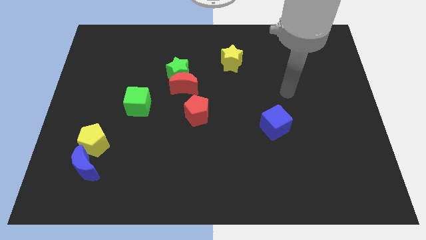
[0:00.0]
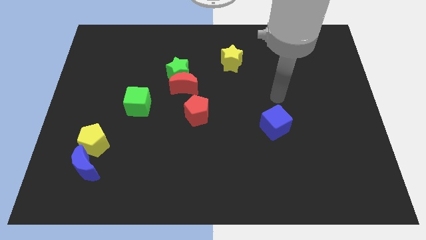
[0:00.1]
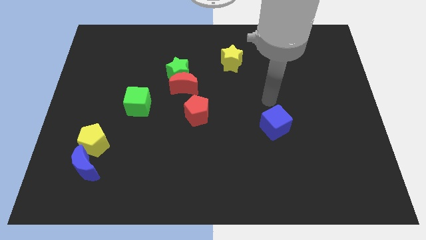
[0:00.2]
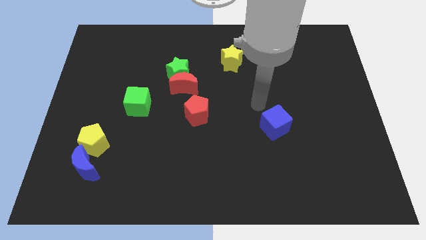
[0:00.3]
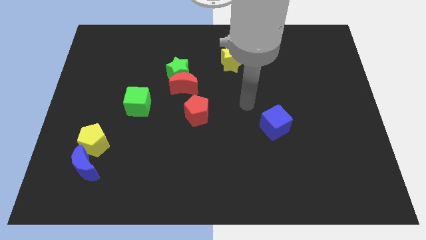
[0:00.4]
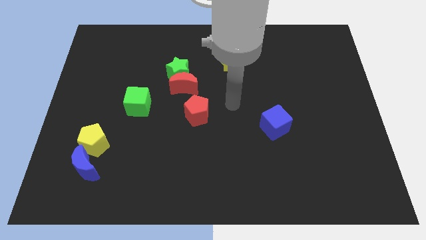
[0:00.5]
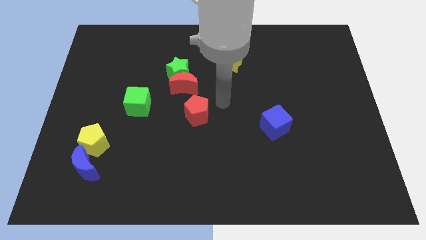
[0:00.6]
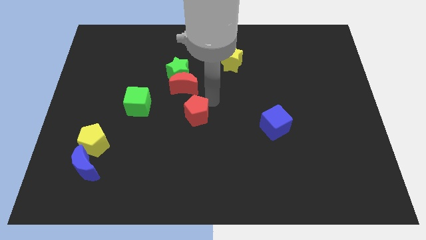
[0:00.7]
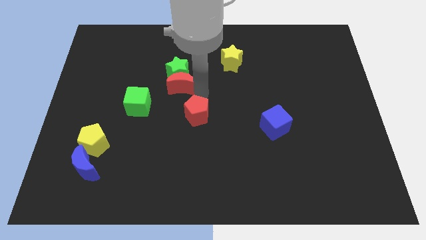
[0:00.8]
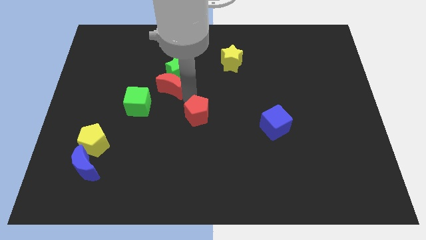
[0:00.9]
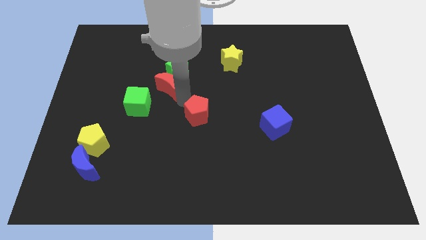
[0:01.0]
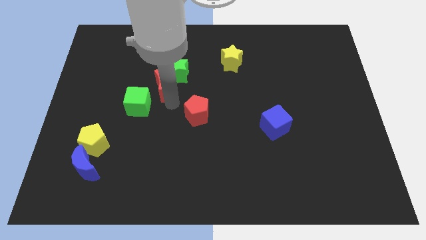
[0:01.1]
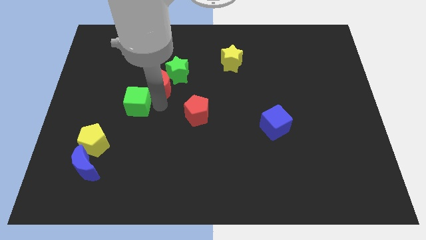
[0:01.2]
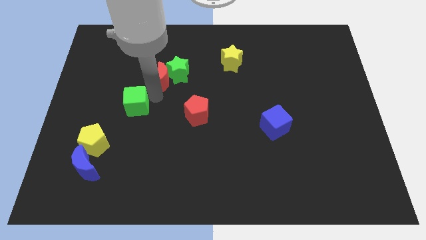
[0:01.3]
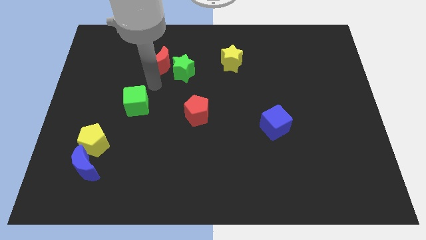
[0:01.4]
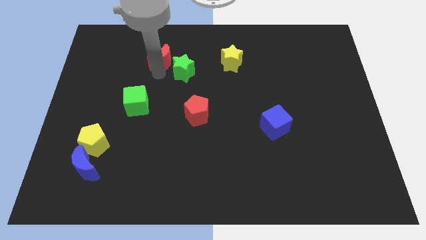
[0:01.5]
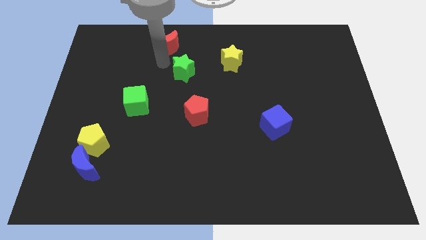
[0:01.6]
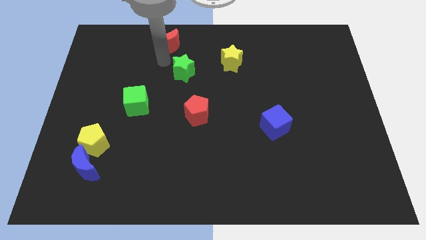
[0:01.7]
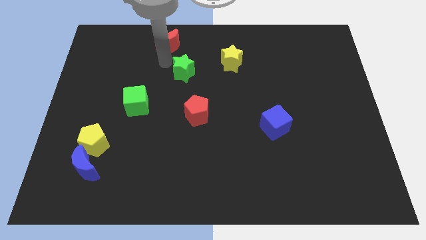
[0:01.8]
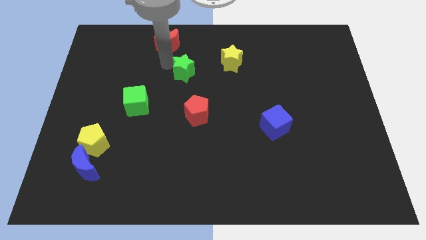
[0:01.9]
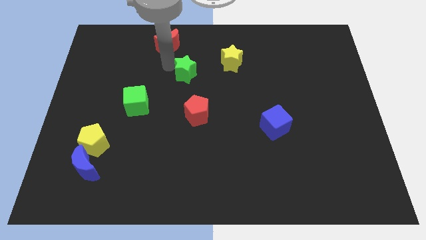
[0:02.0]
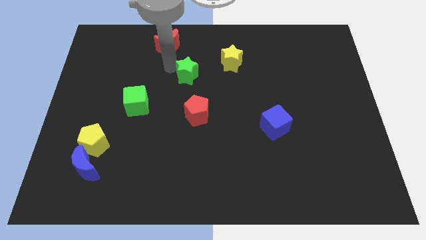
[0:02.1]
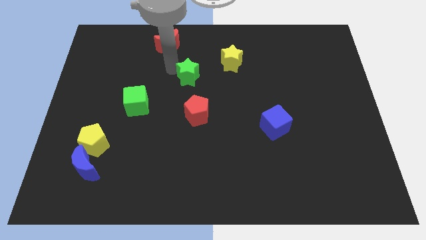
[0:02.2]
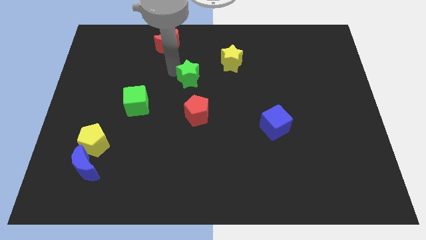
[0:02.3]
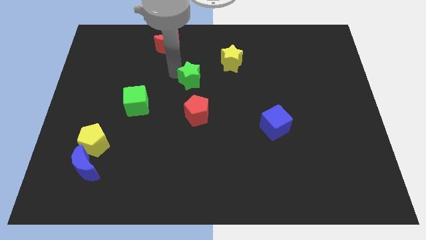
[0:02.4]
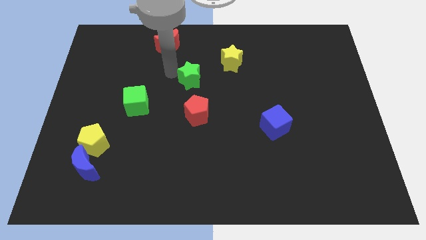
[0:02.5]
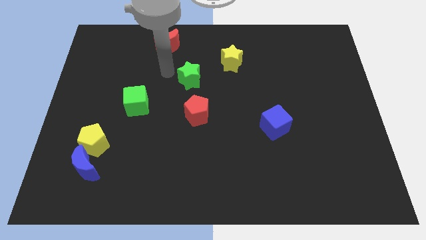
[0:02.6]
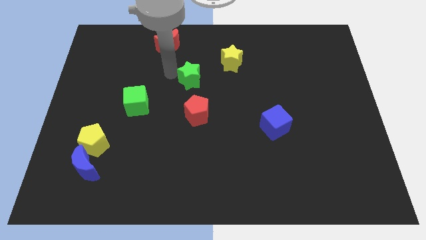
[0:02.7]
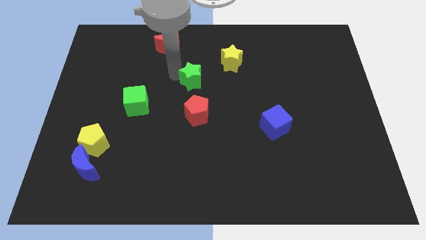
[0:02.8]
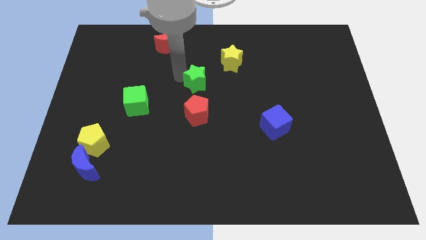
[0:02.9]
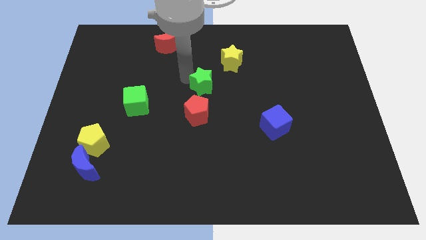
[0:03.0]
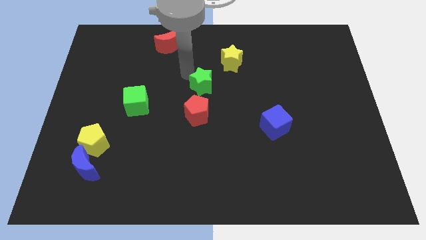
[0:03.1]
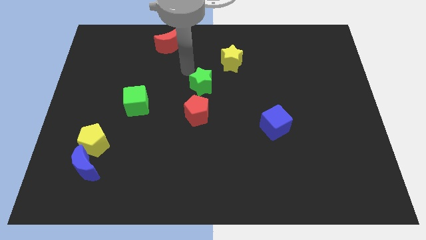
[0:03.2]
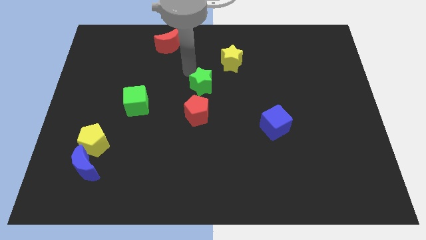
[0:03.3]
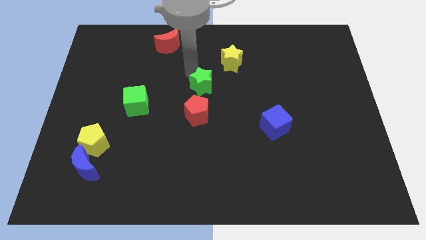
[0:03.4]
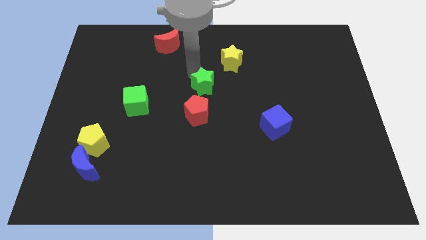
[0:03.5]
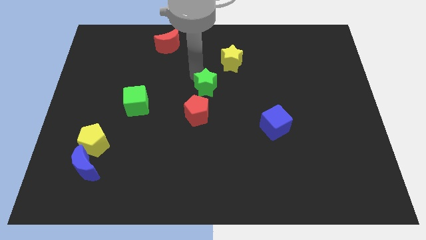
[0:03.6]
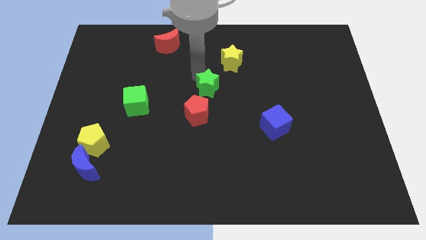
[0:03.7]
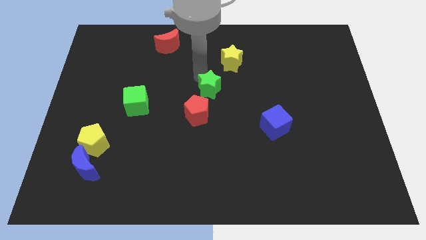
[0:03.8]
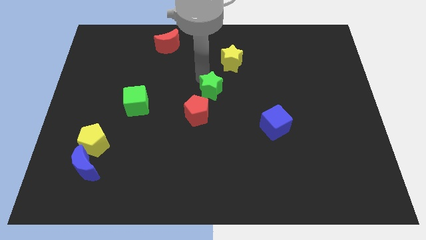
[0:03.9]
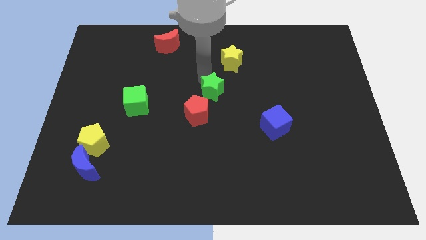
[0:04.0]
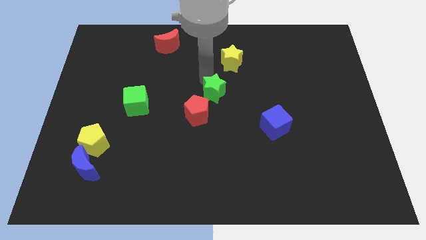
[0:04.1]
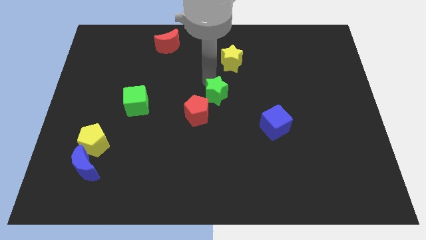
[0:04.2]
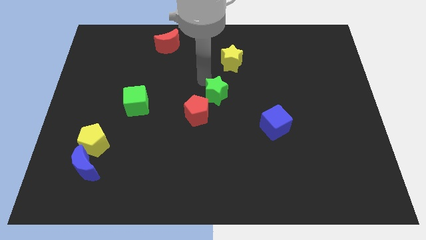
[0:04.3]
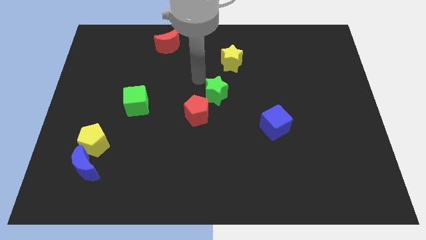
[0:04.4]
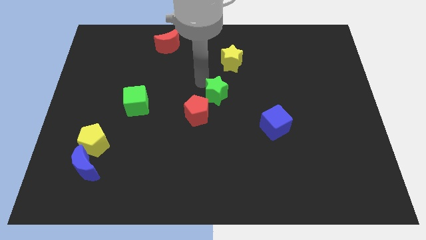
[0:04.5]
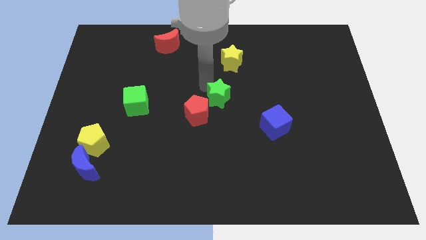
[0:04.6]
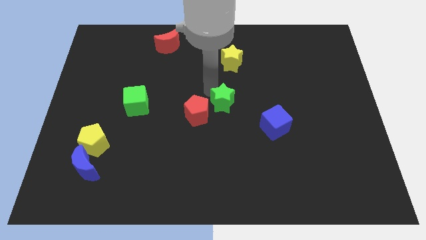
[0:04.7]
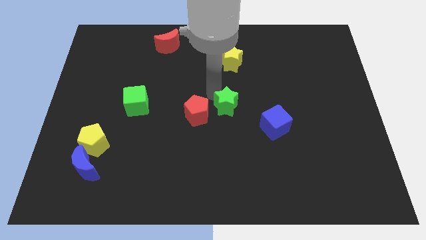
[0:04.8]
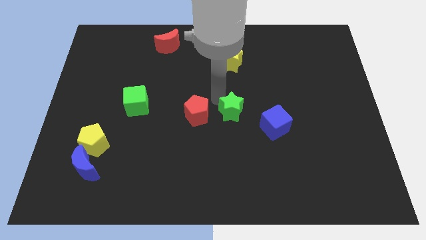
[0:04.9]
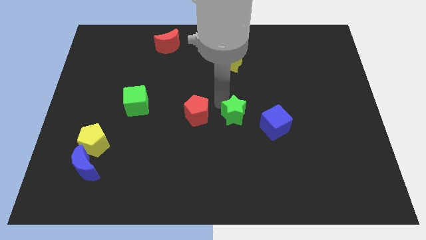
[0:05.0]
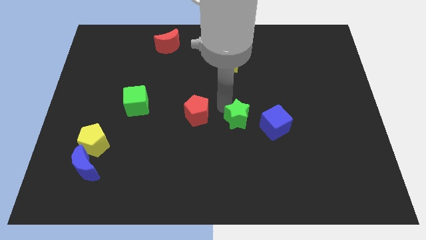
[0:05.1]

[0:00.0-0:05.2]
slide the green star down and to the right diagonally

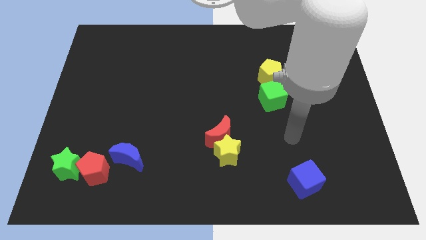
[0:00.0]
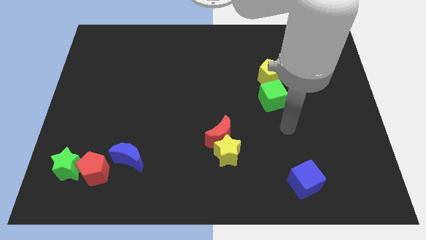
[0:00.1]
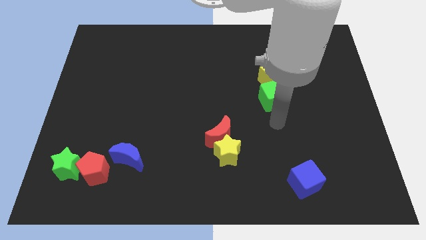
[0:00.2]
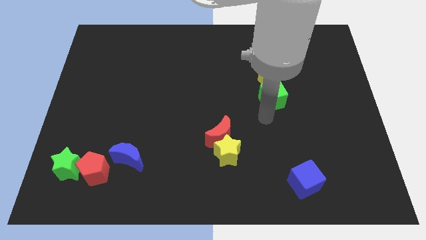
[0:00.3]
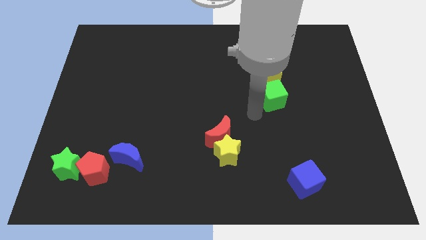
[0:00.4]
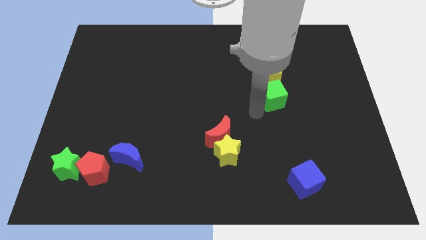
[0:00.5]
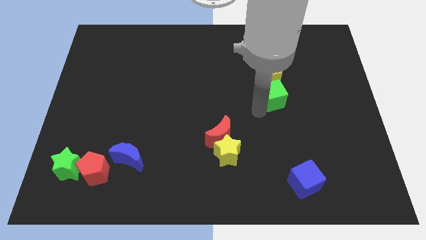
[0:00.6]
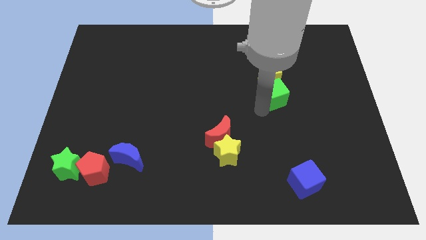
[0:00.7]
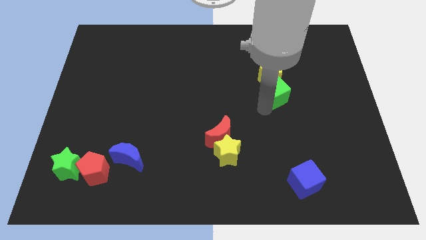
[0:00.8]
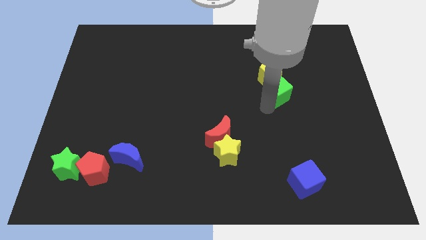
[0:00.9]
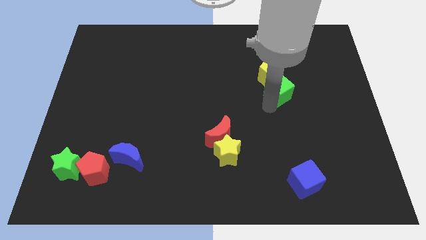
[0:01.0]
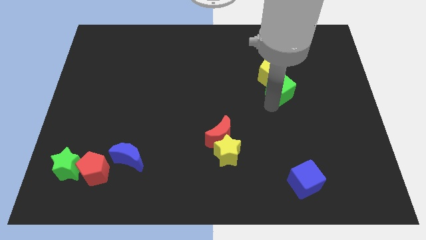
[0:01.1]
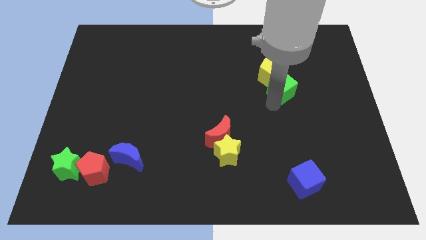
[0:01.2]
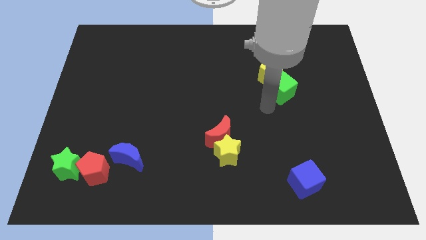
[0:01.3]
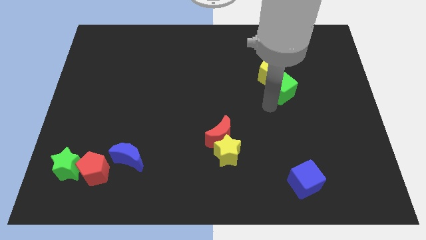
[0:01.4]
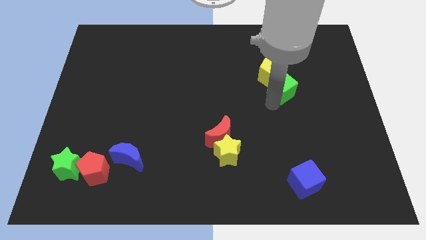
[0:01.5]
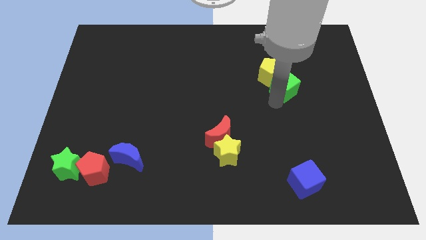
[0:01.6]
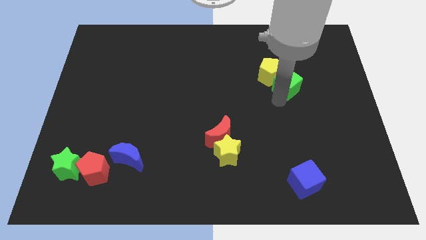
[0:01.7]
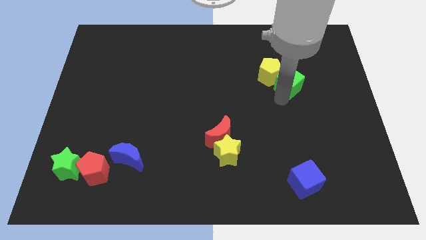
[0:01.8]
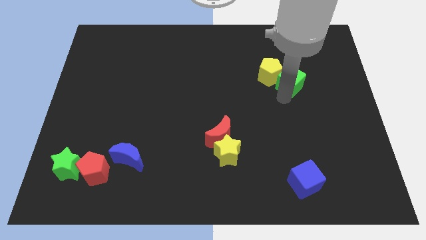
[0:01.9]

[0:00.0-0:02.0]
slide the green cube slightly up and then right

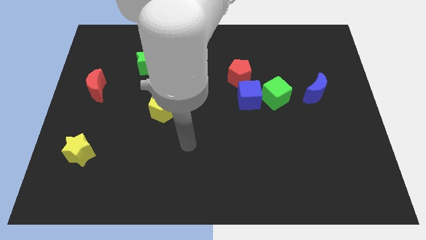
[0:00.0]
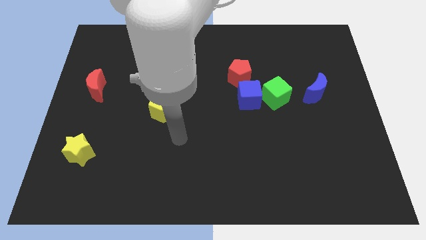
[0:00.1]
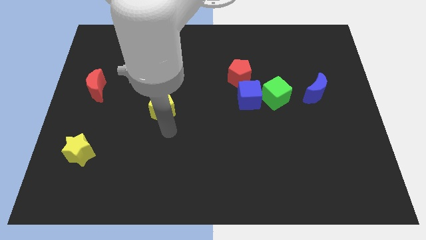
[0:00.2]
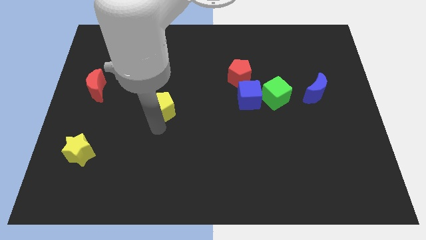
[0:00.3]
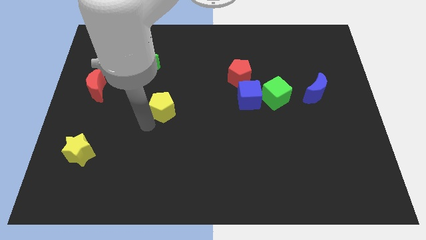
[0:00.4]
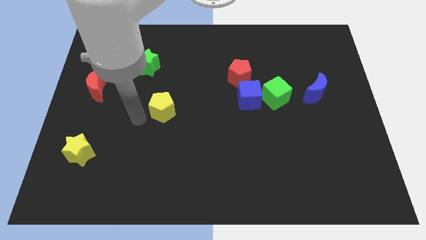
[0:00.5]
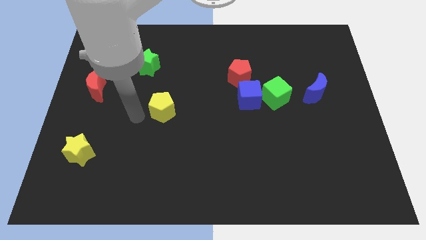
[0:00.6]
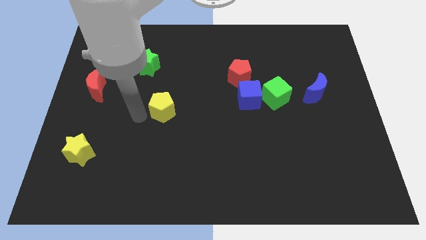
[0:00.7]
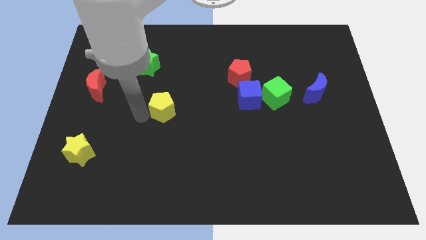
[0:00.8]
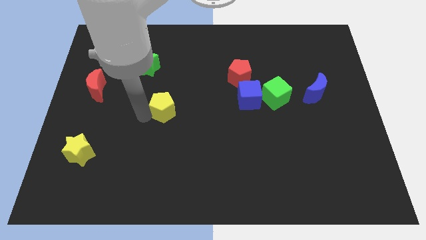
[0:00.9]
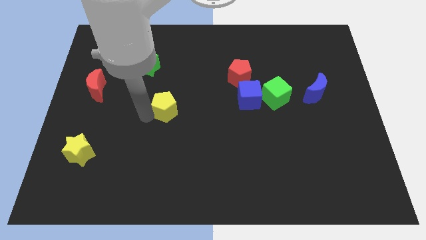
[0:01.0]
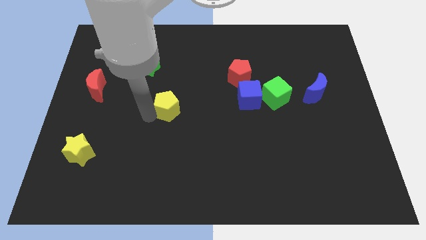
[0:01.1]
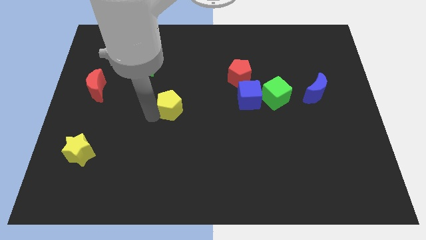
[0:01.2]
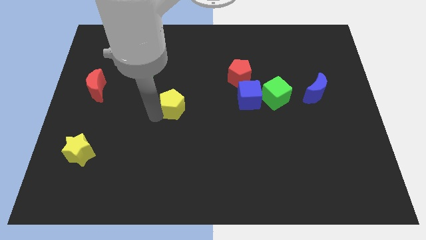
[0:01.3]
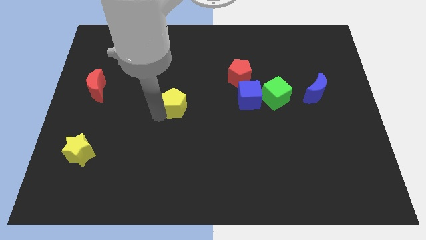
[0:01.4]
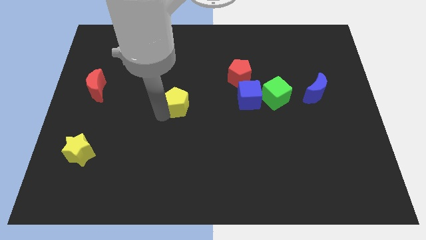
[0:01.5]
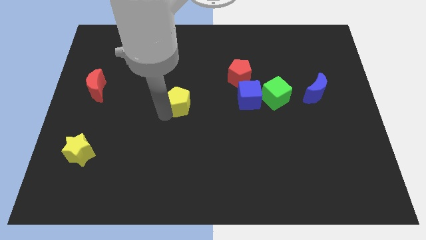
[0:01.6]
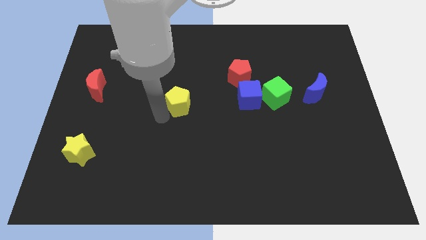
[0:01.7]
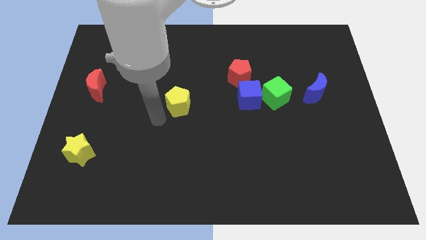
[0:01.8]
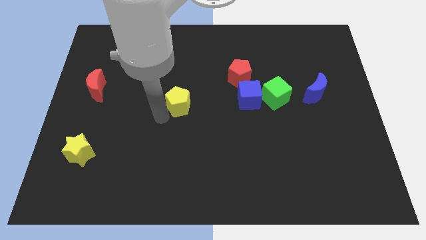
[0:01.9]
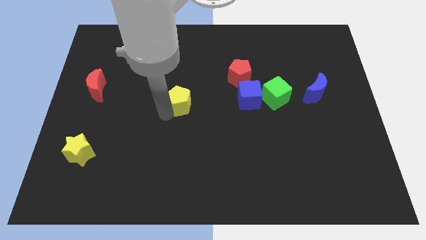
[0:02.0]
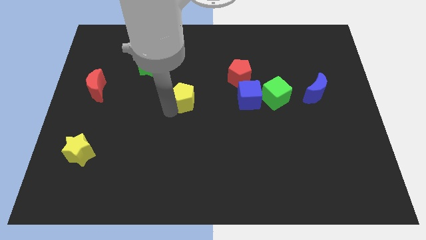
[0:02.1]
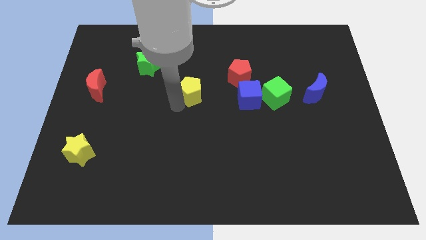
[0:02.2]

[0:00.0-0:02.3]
slide the yellow pentagon up and right a little
